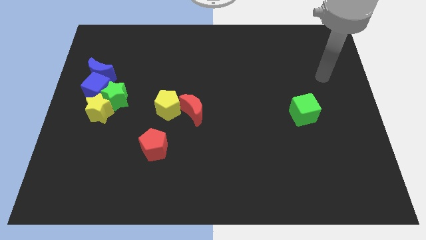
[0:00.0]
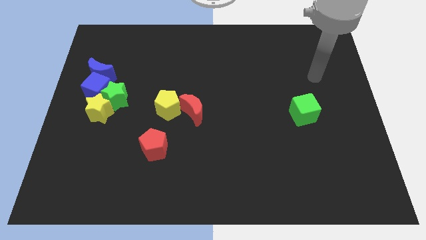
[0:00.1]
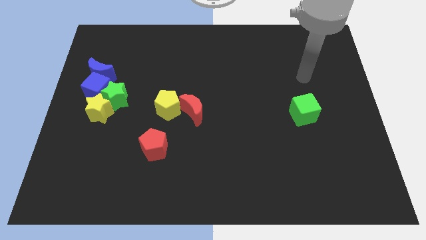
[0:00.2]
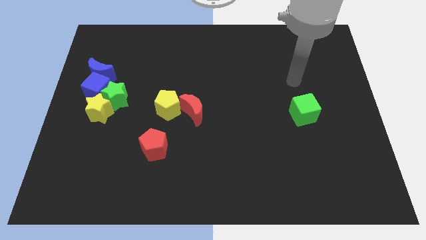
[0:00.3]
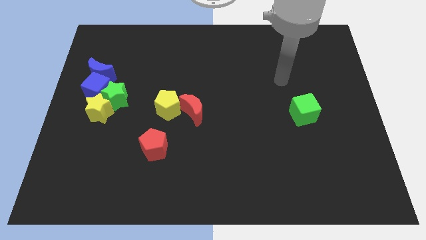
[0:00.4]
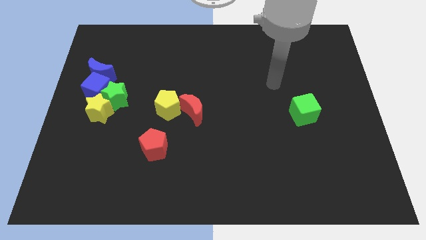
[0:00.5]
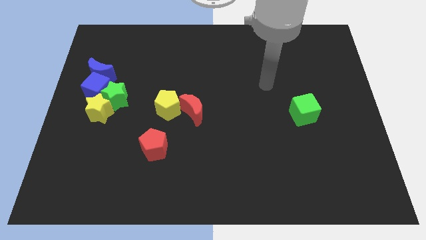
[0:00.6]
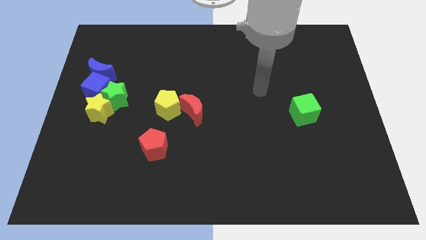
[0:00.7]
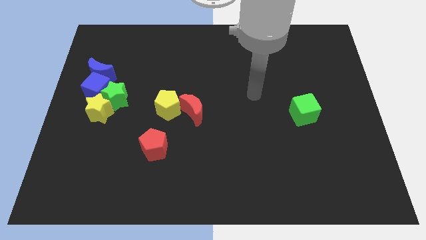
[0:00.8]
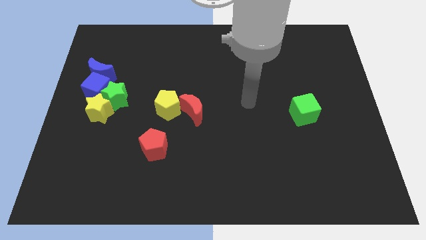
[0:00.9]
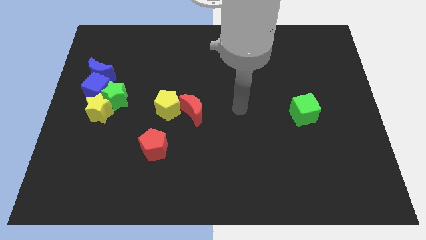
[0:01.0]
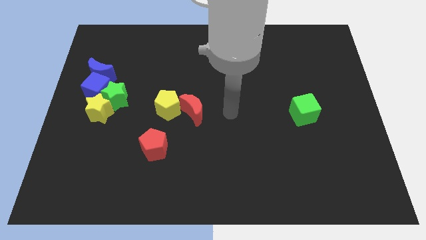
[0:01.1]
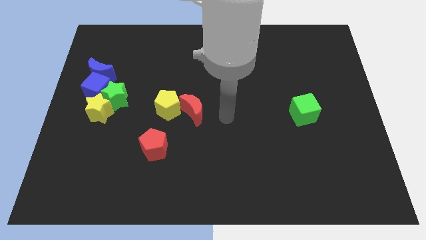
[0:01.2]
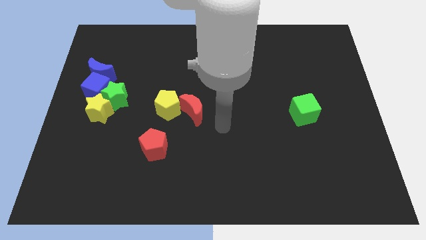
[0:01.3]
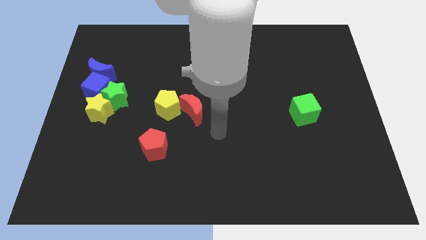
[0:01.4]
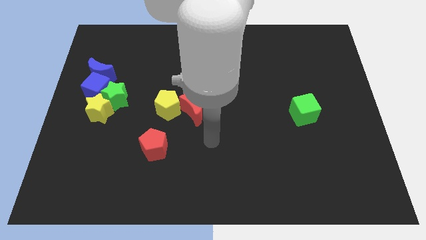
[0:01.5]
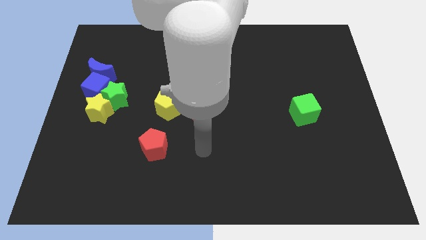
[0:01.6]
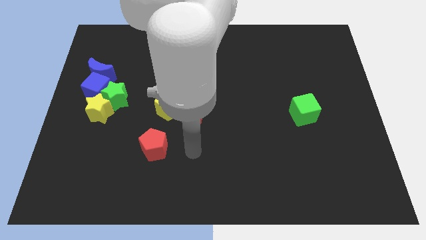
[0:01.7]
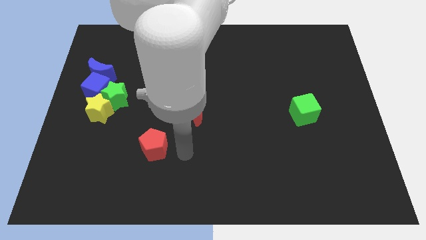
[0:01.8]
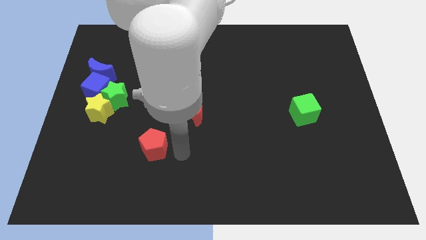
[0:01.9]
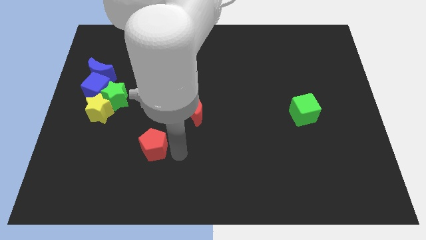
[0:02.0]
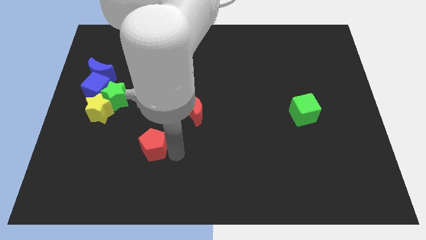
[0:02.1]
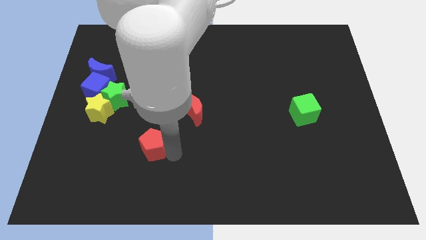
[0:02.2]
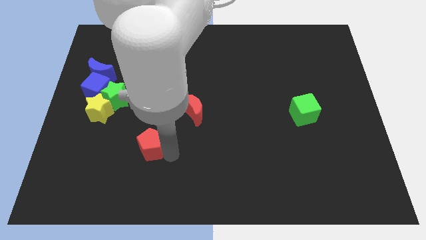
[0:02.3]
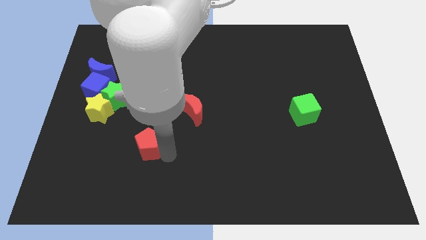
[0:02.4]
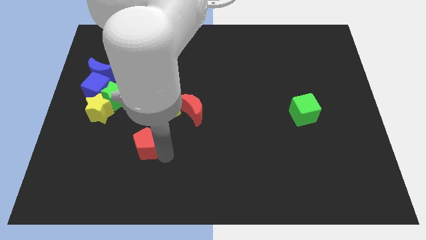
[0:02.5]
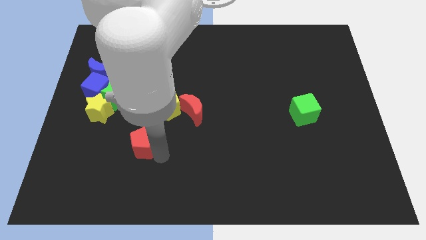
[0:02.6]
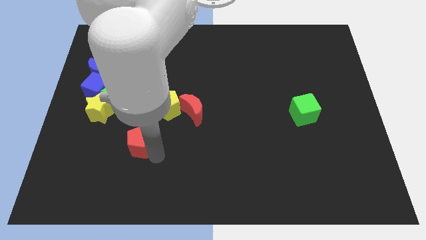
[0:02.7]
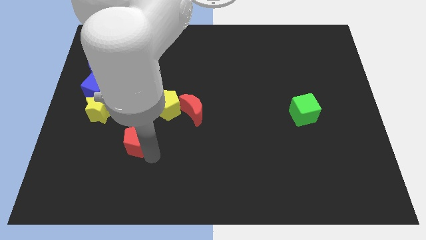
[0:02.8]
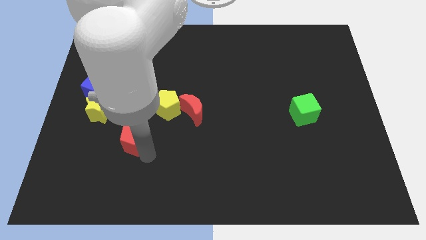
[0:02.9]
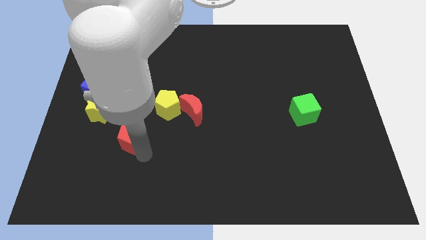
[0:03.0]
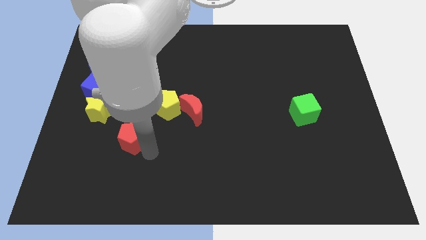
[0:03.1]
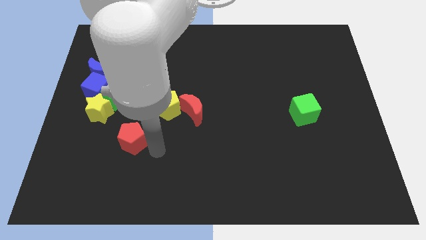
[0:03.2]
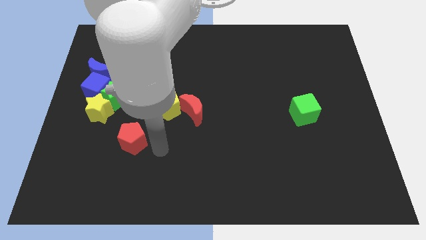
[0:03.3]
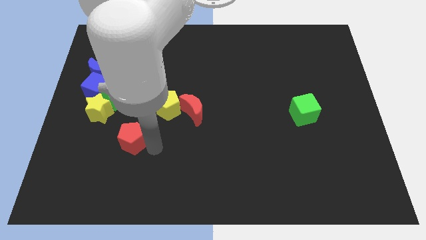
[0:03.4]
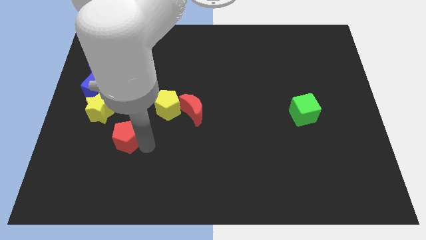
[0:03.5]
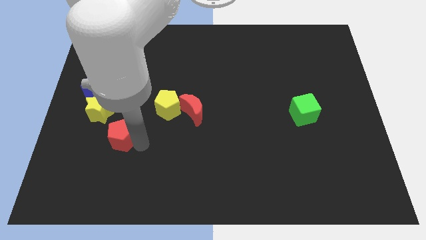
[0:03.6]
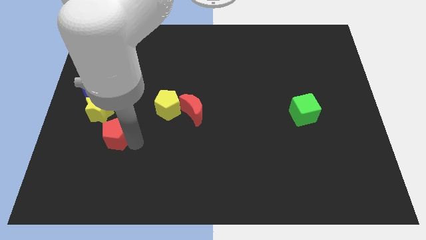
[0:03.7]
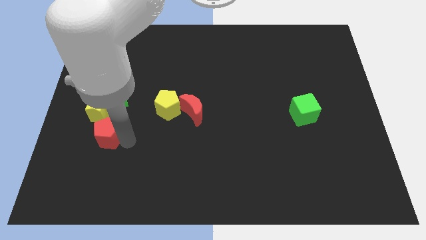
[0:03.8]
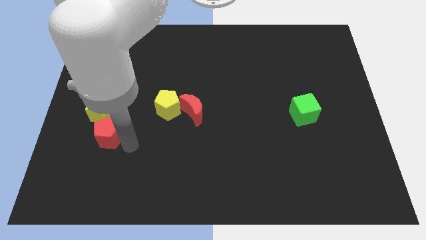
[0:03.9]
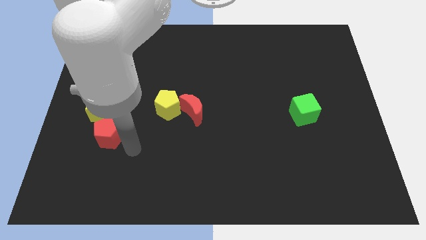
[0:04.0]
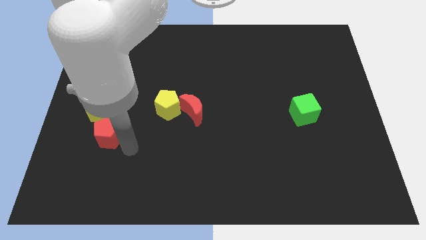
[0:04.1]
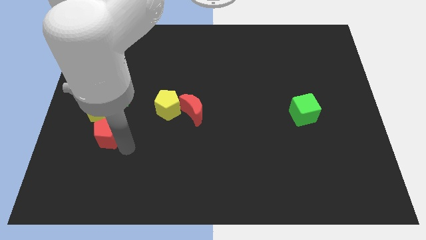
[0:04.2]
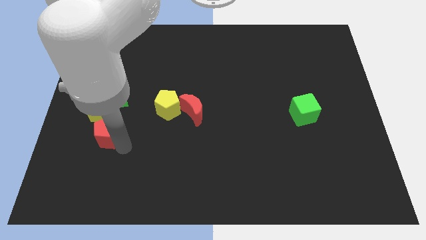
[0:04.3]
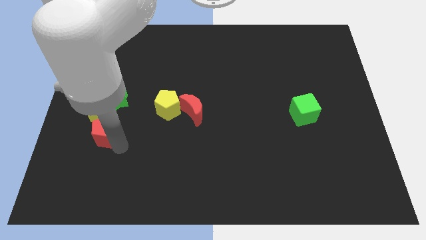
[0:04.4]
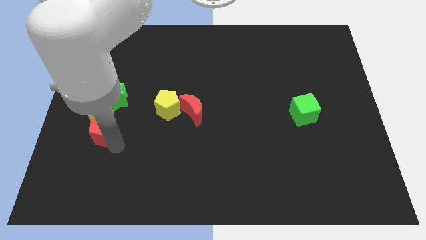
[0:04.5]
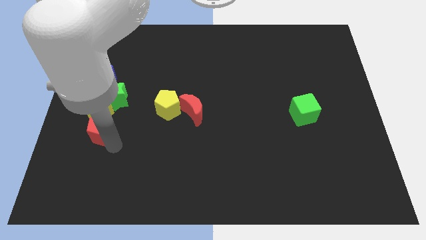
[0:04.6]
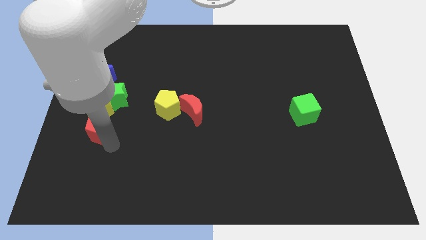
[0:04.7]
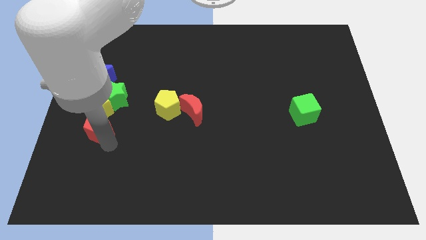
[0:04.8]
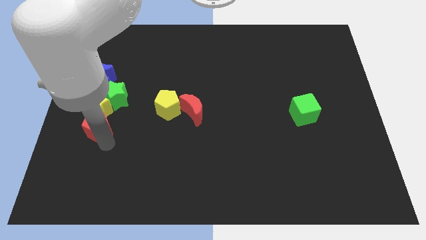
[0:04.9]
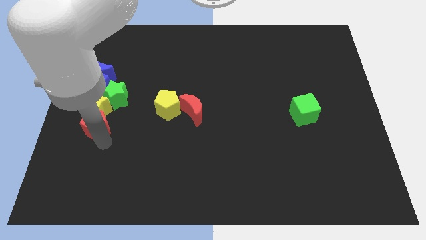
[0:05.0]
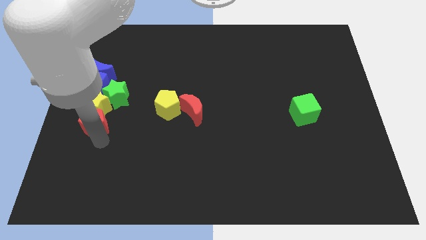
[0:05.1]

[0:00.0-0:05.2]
move the red pentagon to the bottom side of the blue moon

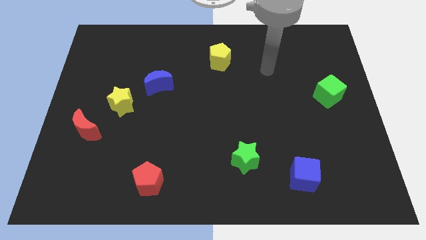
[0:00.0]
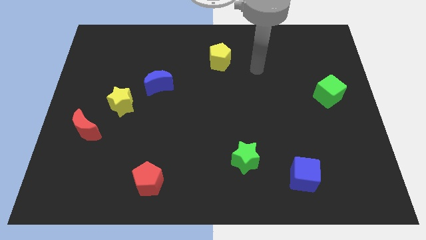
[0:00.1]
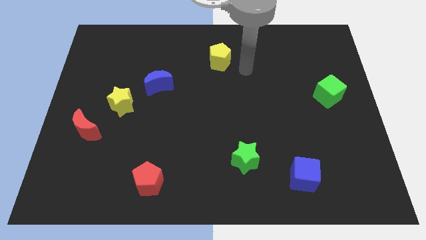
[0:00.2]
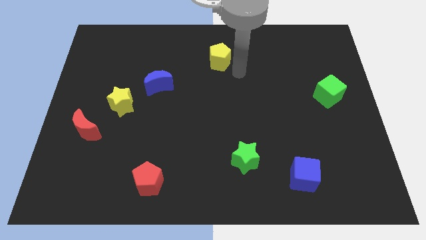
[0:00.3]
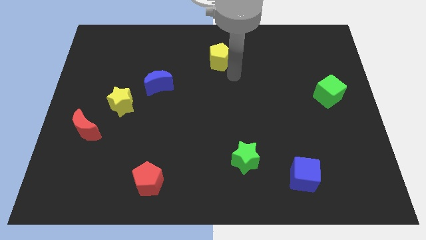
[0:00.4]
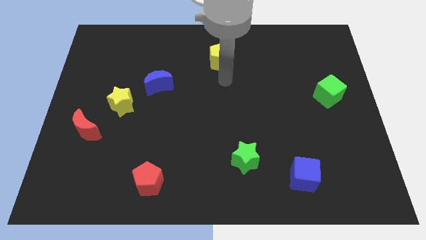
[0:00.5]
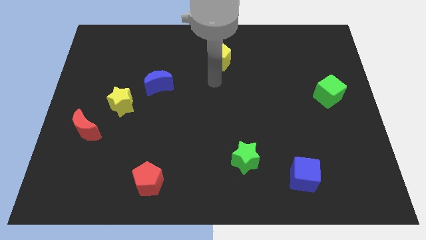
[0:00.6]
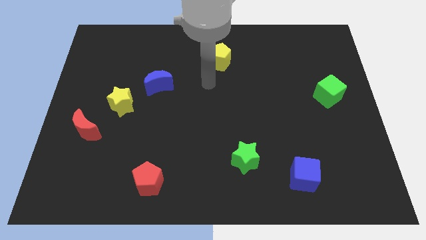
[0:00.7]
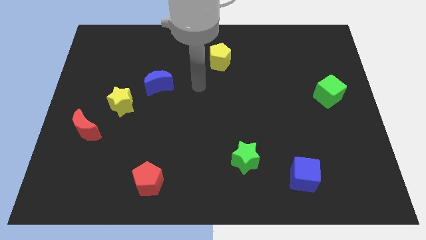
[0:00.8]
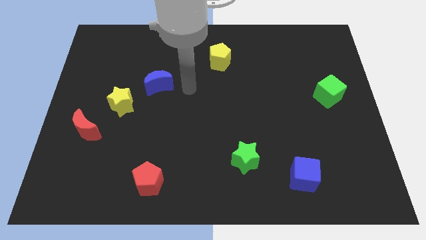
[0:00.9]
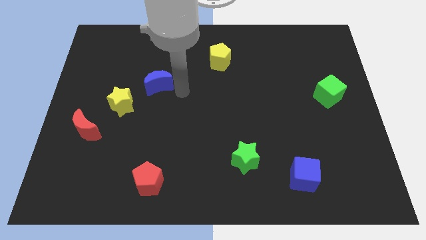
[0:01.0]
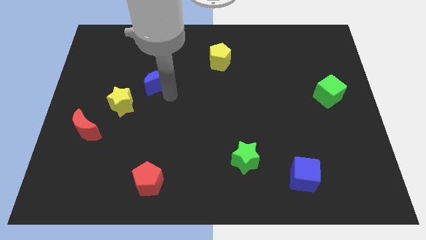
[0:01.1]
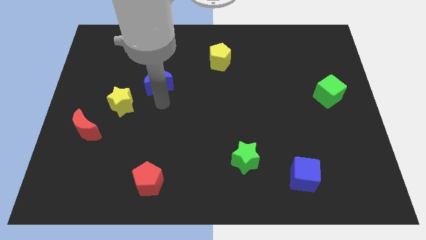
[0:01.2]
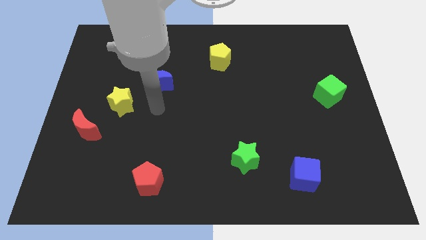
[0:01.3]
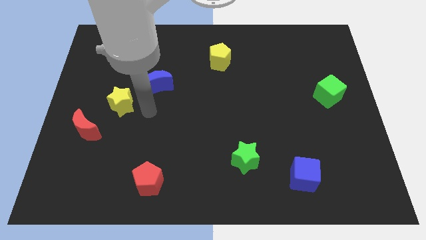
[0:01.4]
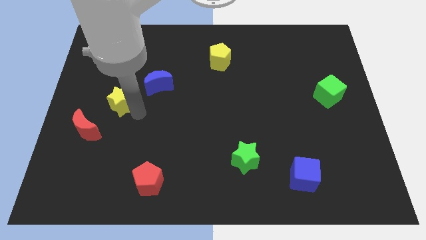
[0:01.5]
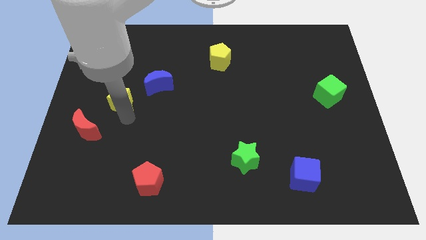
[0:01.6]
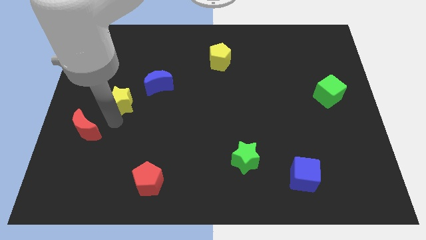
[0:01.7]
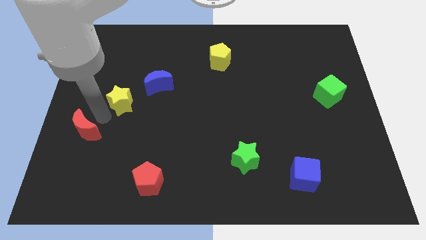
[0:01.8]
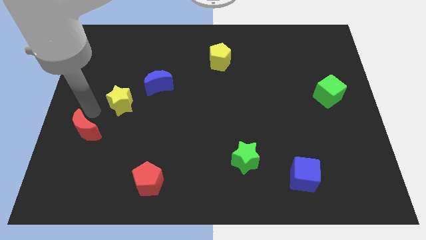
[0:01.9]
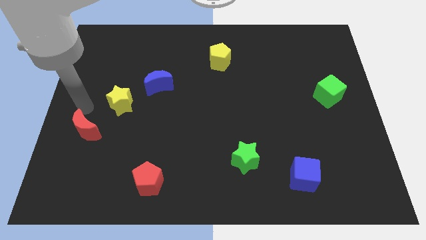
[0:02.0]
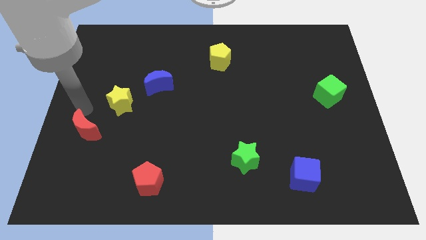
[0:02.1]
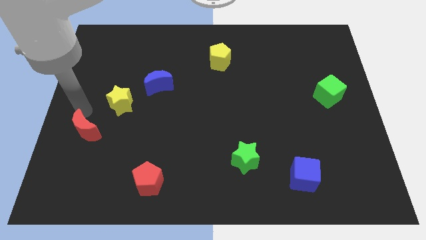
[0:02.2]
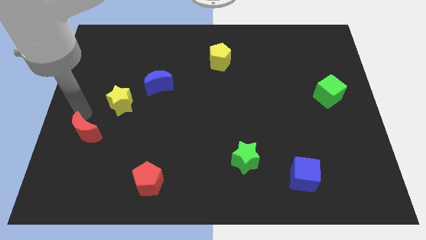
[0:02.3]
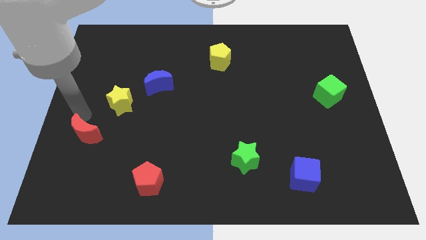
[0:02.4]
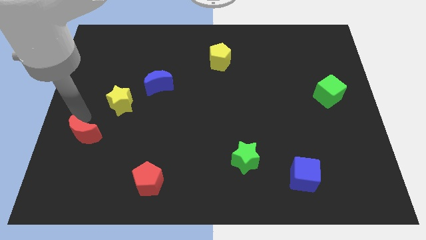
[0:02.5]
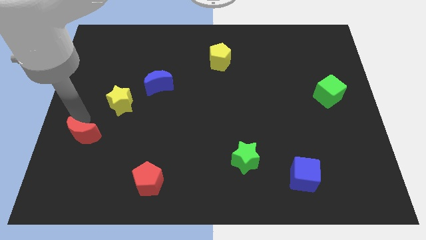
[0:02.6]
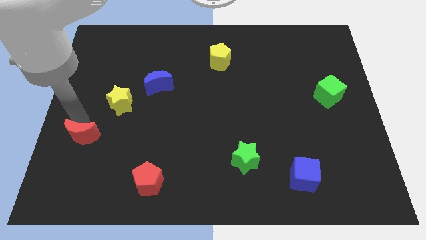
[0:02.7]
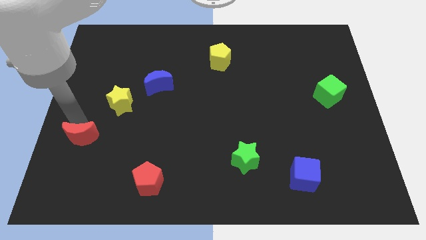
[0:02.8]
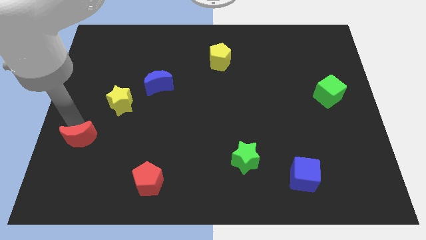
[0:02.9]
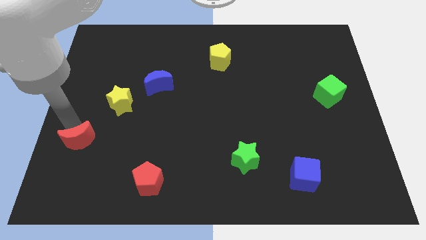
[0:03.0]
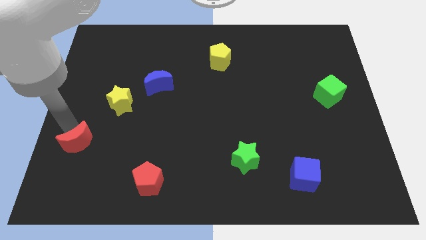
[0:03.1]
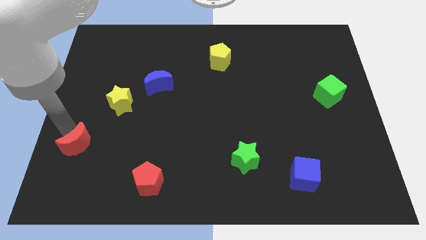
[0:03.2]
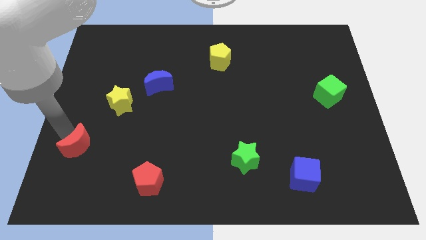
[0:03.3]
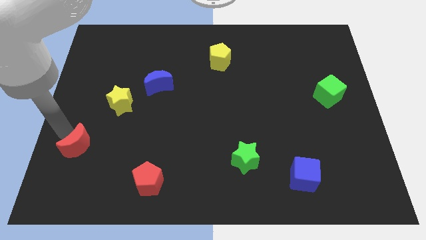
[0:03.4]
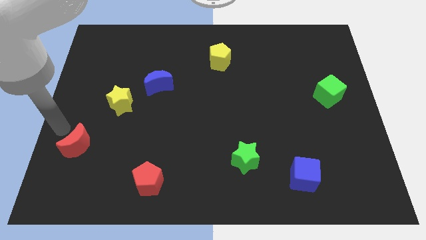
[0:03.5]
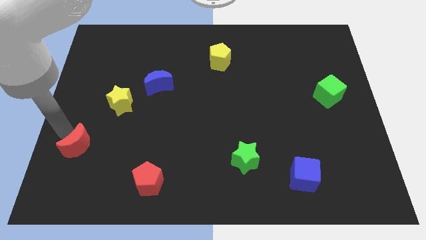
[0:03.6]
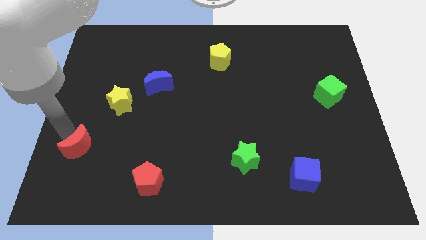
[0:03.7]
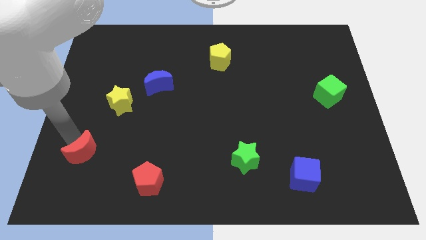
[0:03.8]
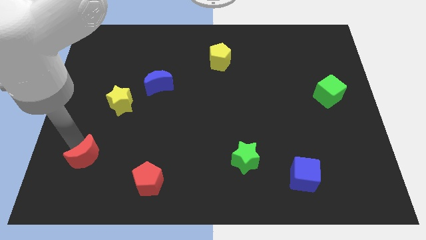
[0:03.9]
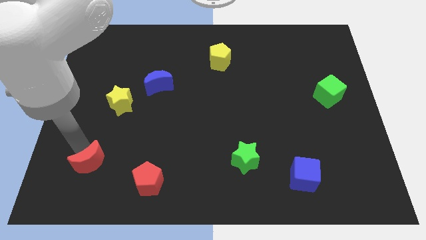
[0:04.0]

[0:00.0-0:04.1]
put the red moon left of the red pentagon
